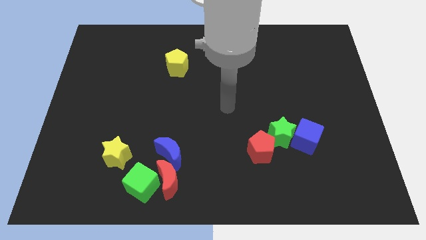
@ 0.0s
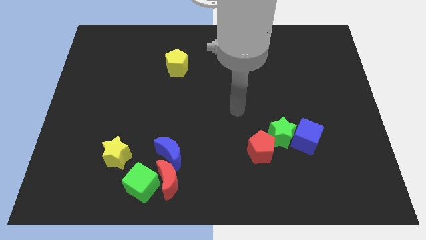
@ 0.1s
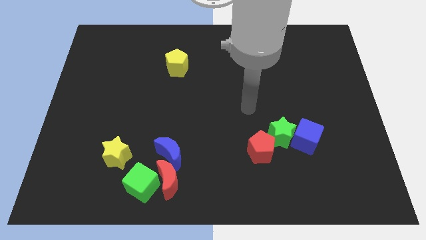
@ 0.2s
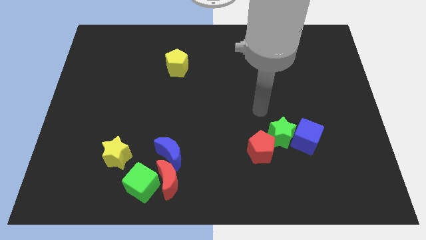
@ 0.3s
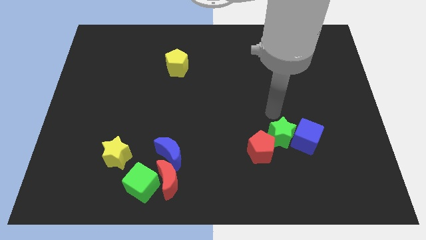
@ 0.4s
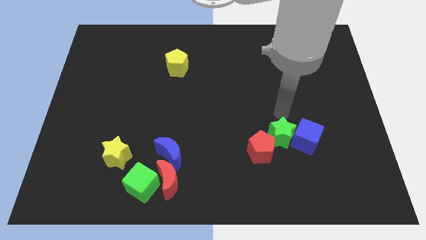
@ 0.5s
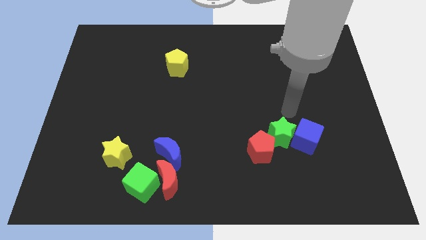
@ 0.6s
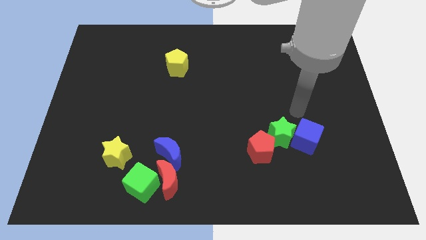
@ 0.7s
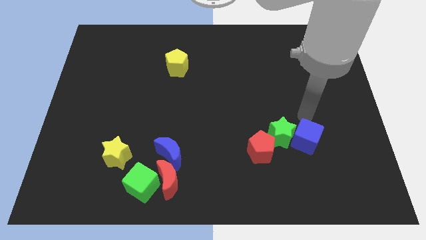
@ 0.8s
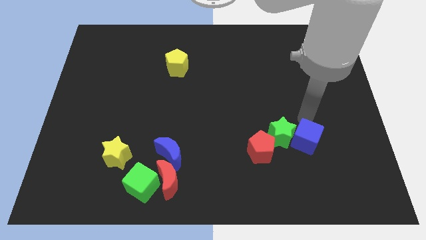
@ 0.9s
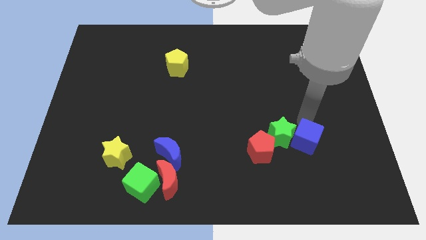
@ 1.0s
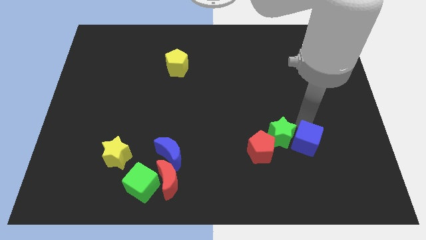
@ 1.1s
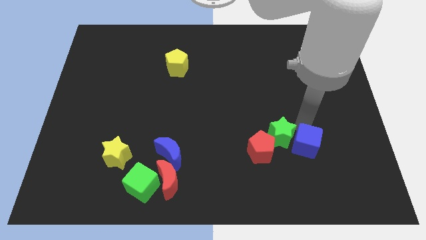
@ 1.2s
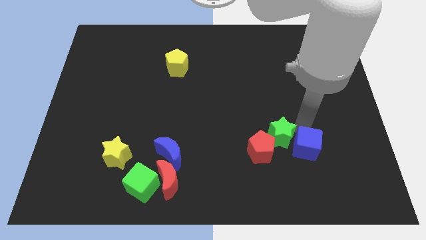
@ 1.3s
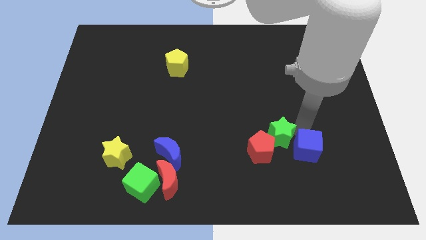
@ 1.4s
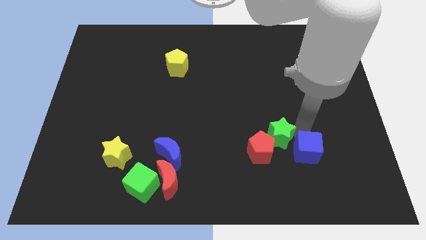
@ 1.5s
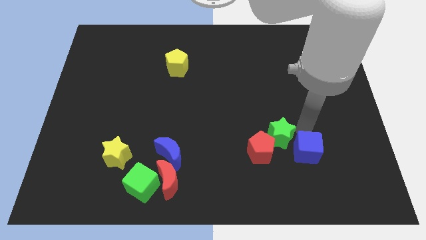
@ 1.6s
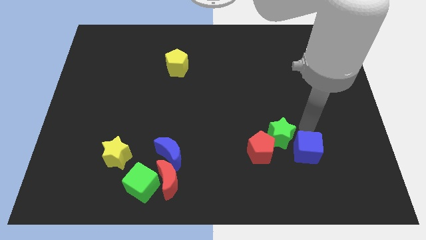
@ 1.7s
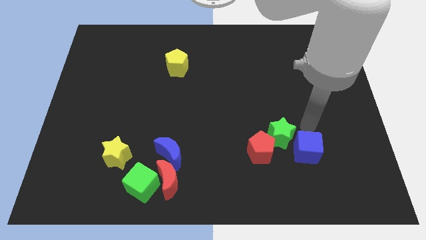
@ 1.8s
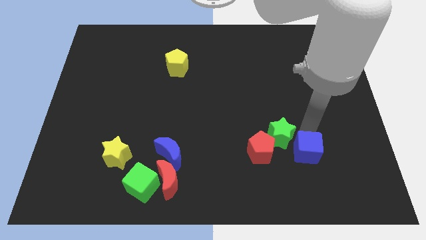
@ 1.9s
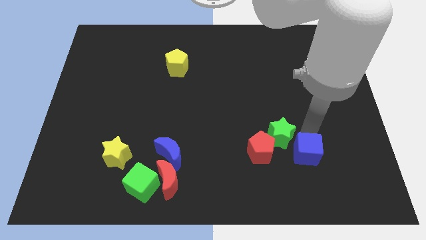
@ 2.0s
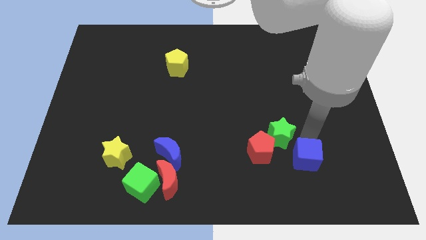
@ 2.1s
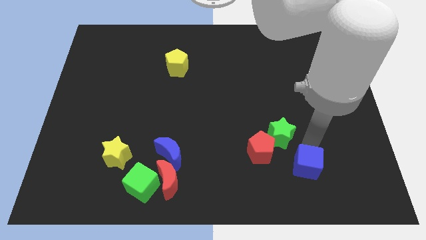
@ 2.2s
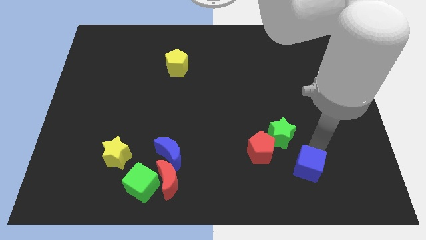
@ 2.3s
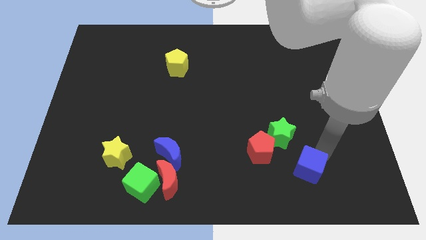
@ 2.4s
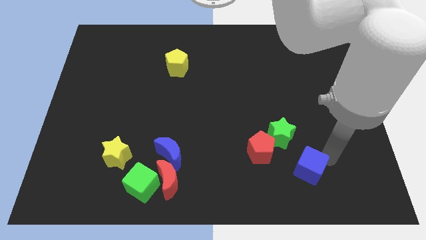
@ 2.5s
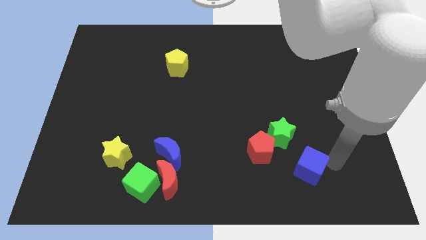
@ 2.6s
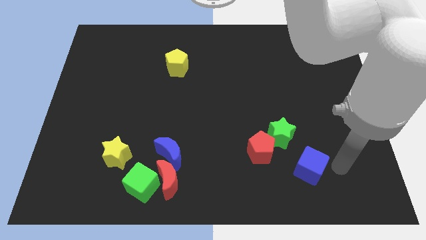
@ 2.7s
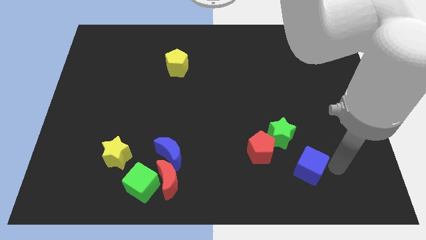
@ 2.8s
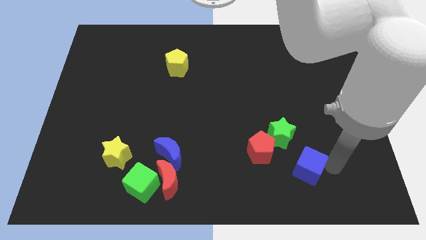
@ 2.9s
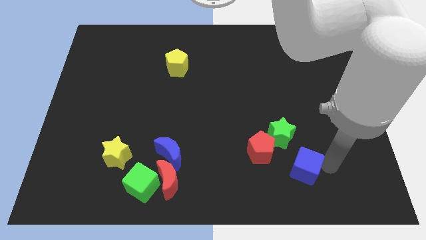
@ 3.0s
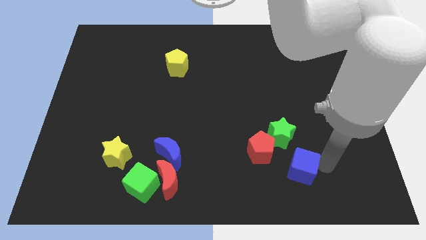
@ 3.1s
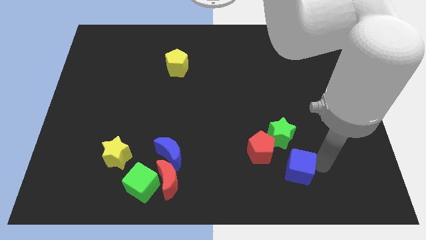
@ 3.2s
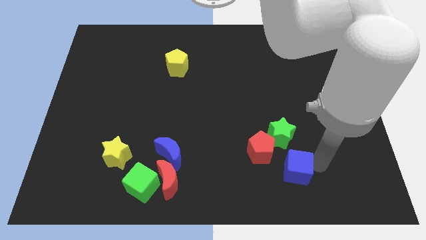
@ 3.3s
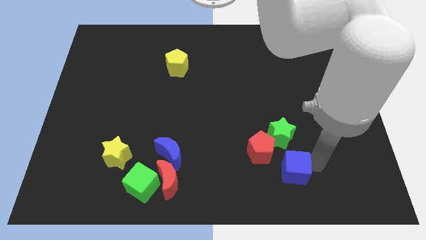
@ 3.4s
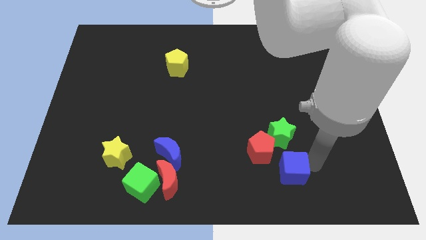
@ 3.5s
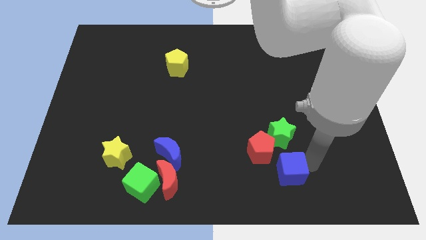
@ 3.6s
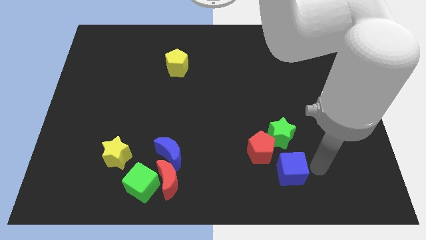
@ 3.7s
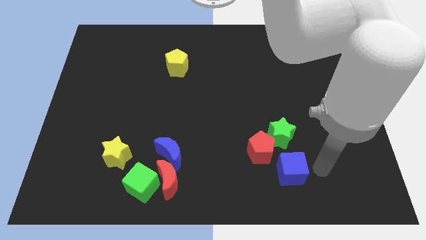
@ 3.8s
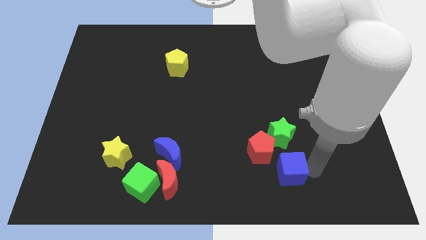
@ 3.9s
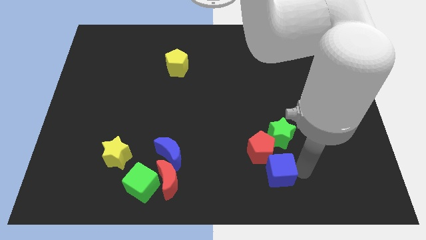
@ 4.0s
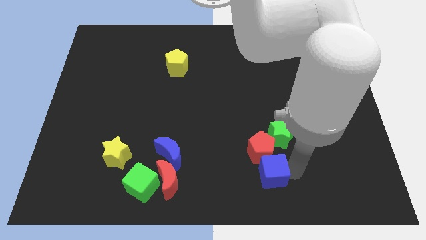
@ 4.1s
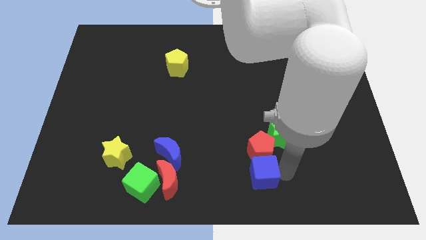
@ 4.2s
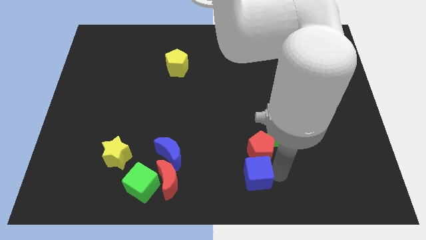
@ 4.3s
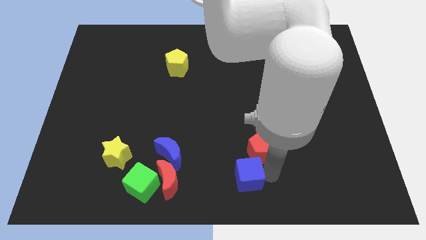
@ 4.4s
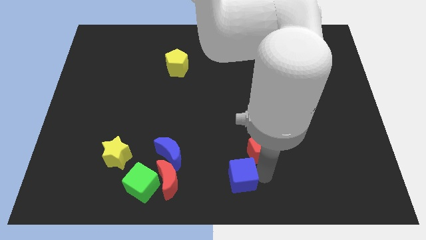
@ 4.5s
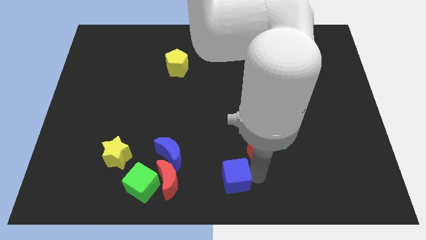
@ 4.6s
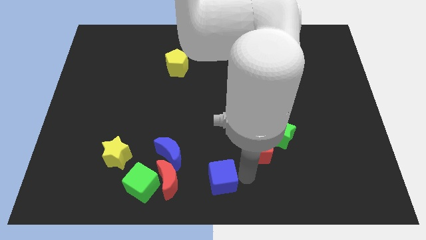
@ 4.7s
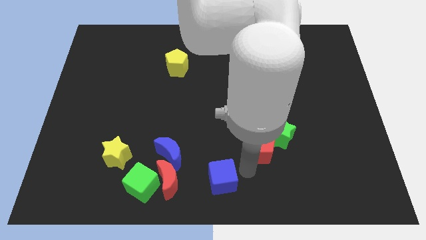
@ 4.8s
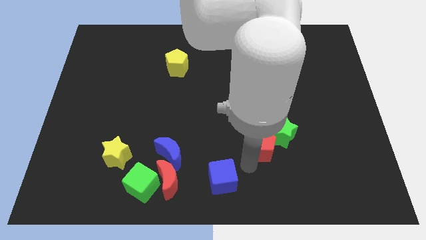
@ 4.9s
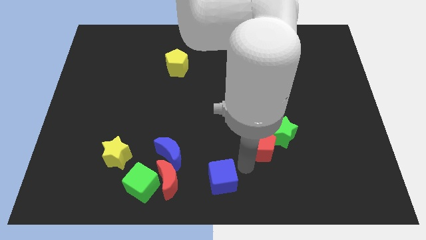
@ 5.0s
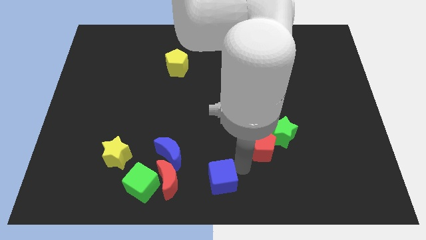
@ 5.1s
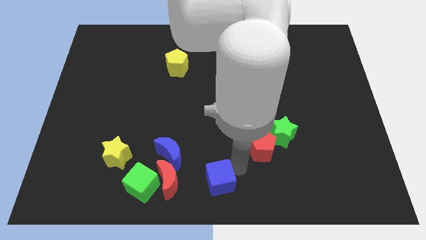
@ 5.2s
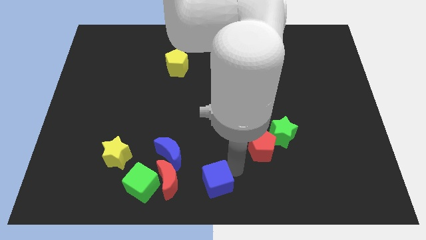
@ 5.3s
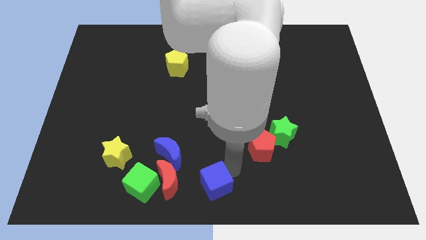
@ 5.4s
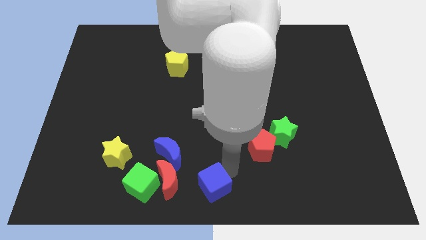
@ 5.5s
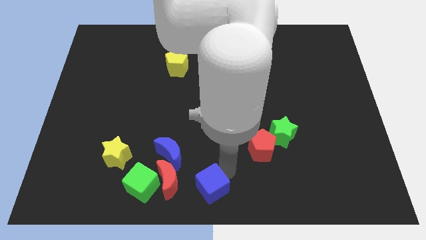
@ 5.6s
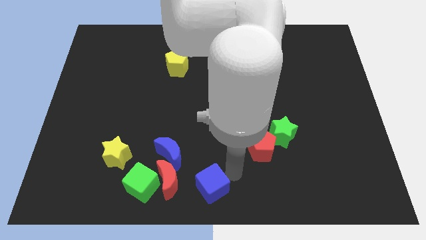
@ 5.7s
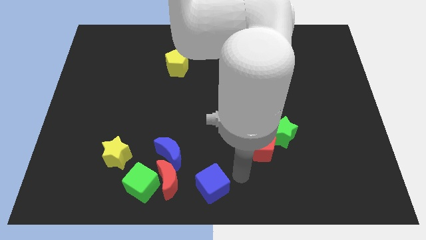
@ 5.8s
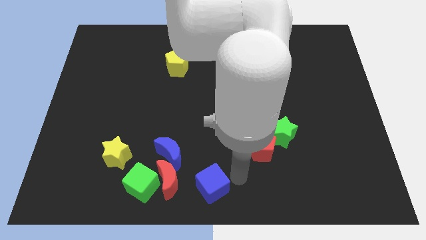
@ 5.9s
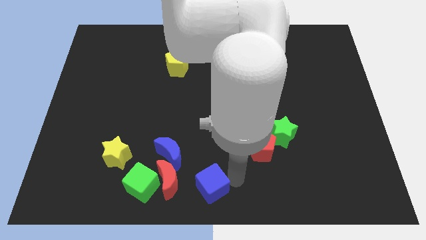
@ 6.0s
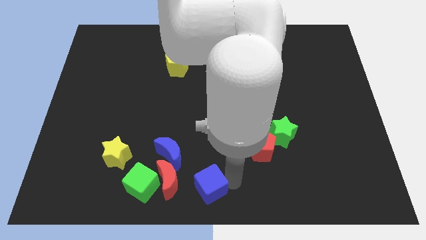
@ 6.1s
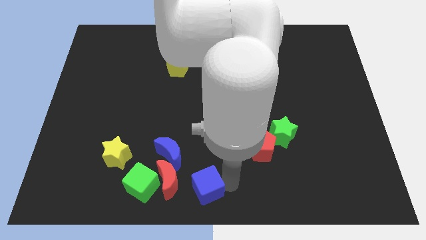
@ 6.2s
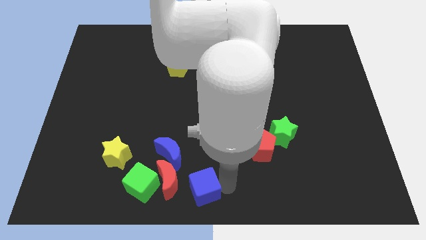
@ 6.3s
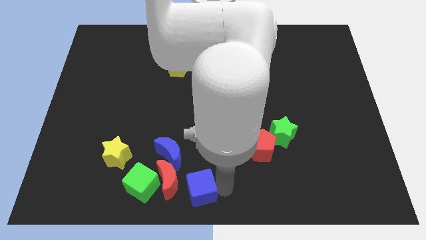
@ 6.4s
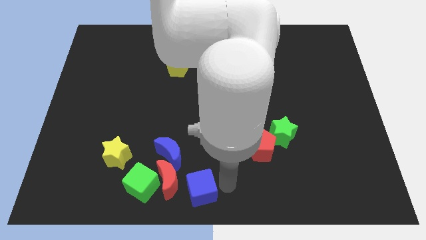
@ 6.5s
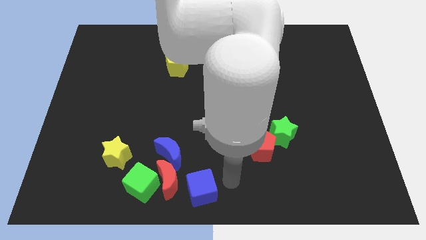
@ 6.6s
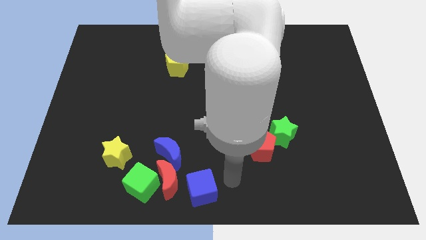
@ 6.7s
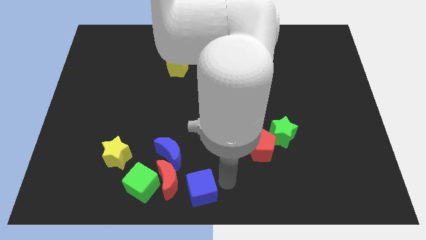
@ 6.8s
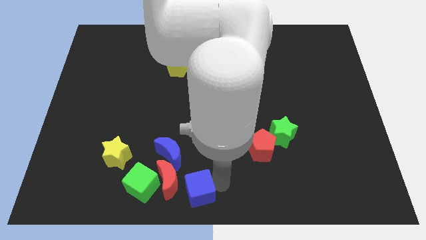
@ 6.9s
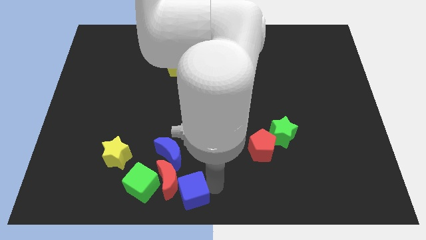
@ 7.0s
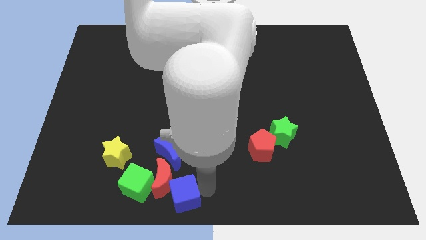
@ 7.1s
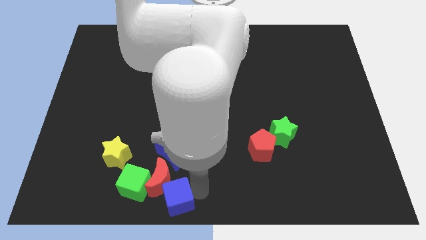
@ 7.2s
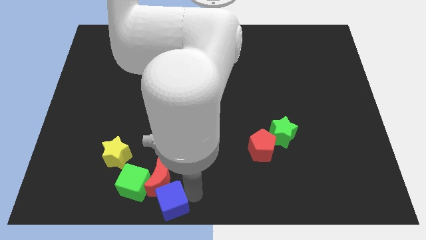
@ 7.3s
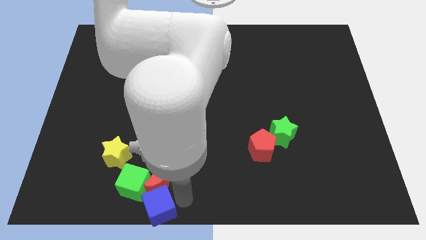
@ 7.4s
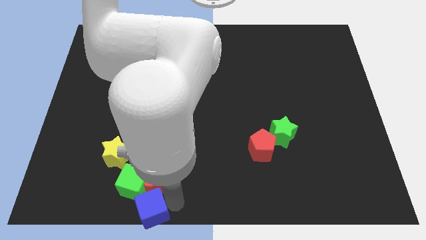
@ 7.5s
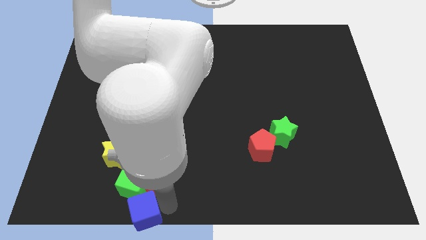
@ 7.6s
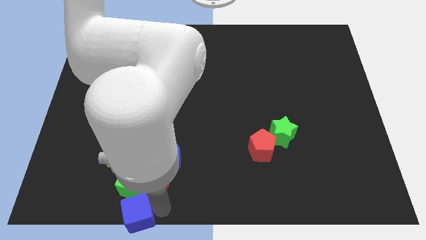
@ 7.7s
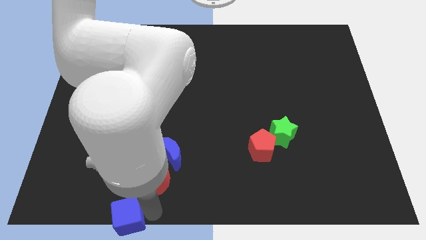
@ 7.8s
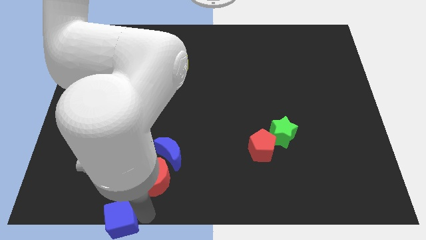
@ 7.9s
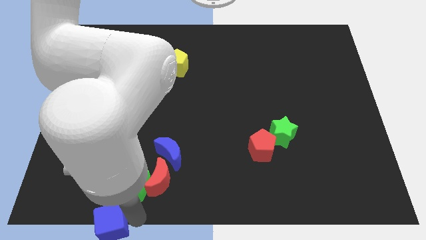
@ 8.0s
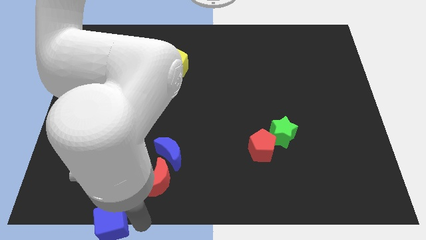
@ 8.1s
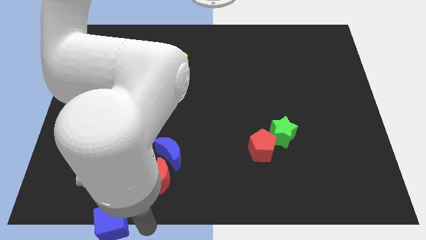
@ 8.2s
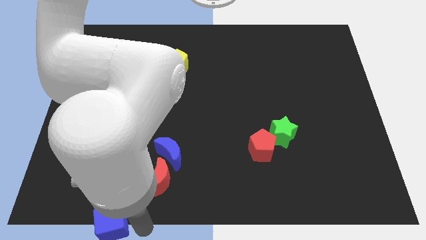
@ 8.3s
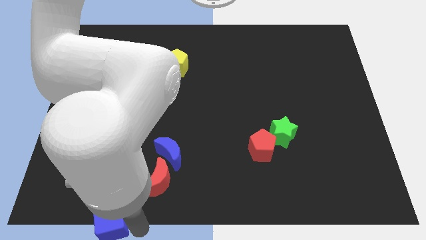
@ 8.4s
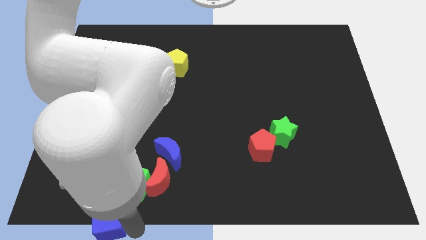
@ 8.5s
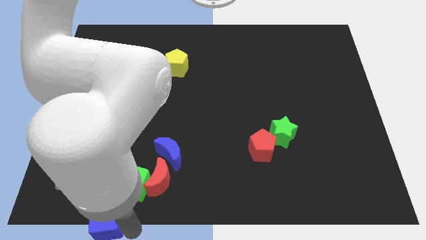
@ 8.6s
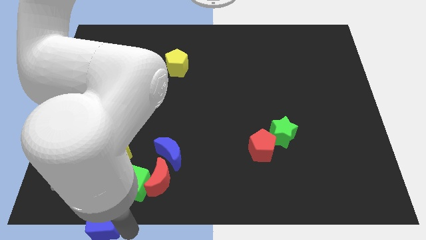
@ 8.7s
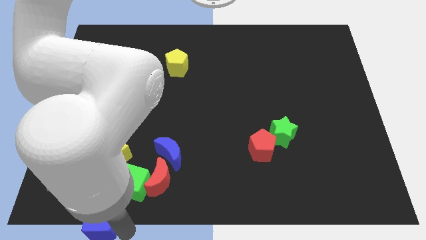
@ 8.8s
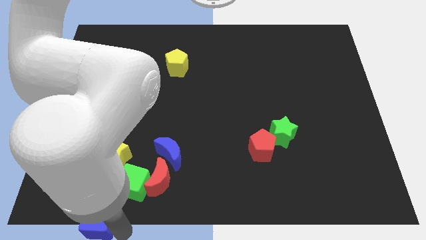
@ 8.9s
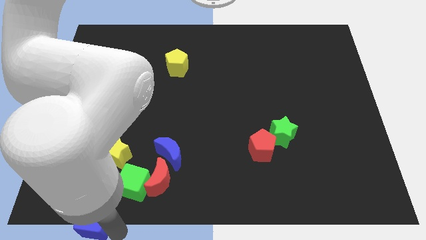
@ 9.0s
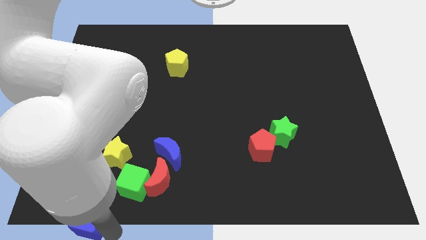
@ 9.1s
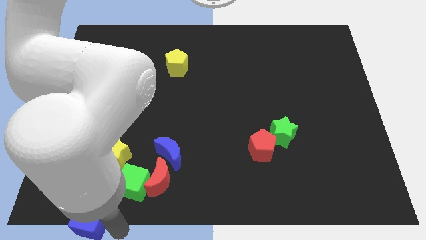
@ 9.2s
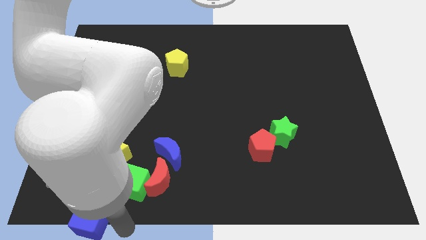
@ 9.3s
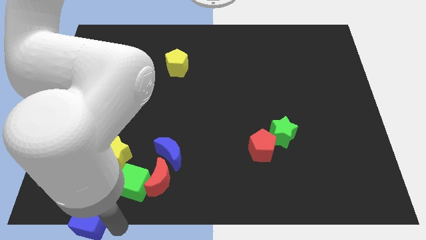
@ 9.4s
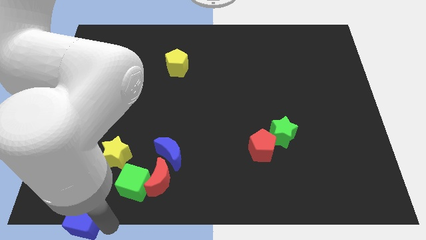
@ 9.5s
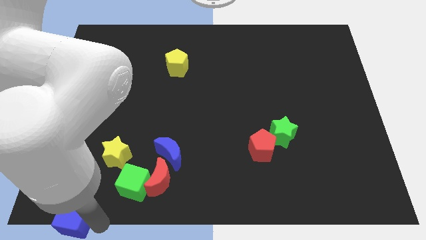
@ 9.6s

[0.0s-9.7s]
move the blue cube to the bottom left
